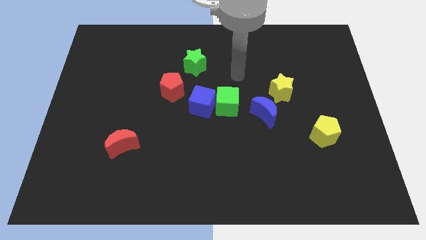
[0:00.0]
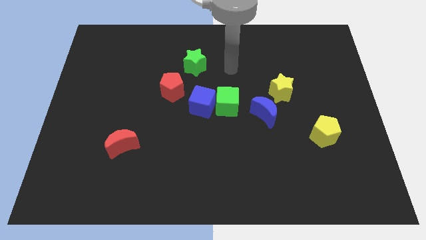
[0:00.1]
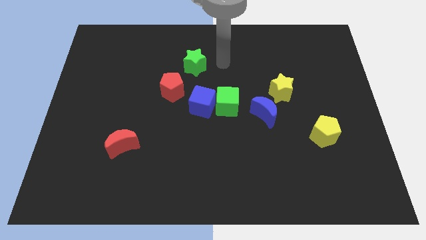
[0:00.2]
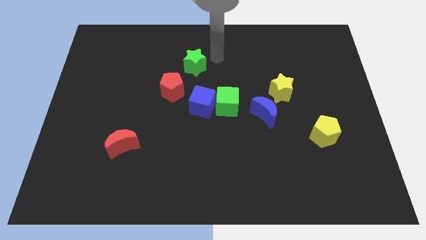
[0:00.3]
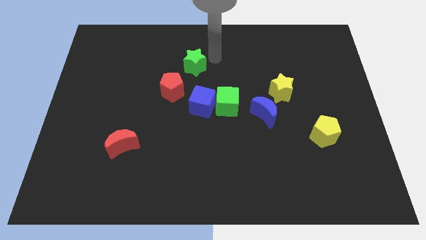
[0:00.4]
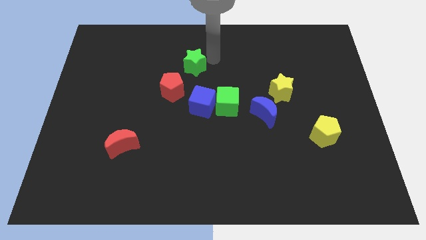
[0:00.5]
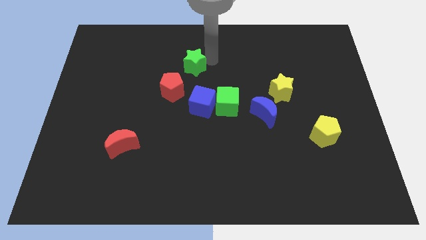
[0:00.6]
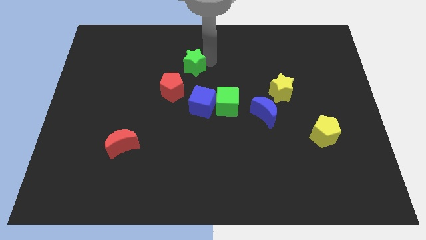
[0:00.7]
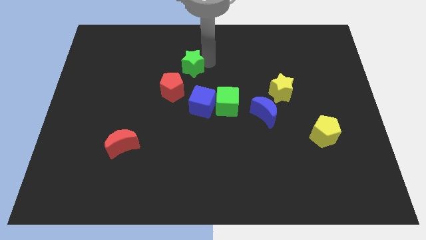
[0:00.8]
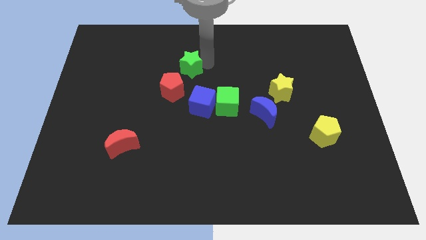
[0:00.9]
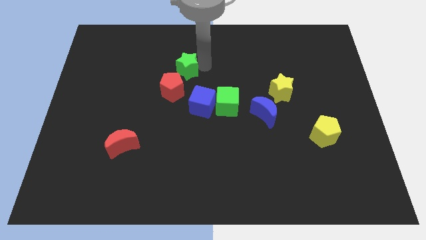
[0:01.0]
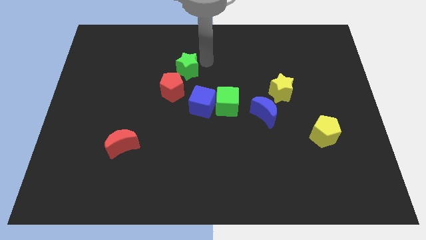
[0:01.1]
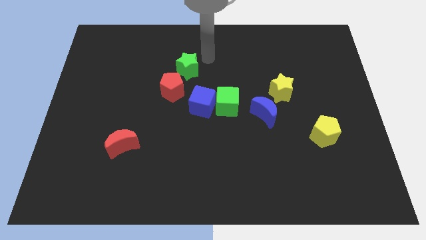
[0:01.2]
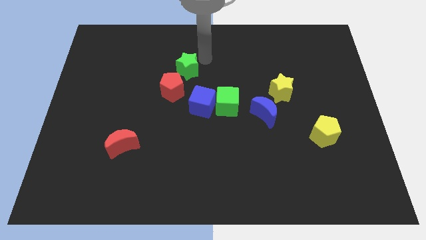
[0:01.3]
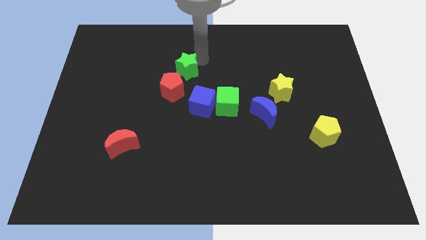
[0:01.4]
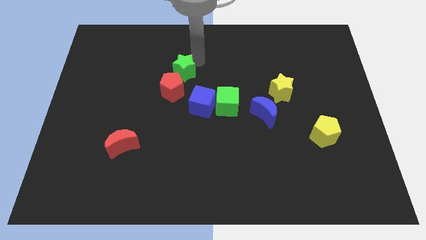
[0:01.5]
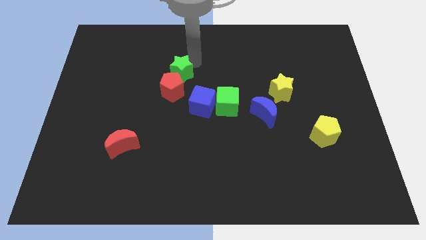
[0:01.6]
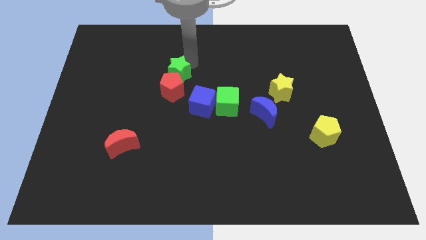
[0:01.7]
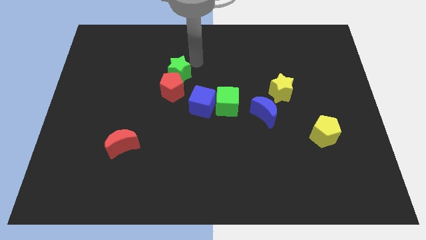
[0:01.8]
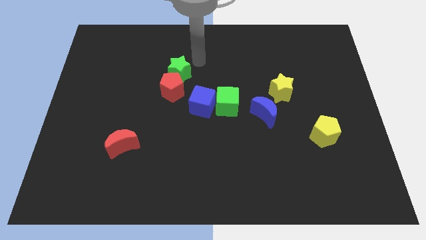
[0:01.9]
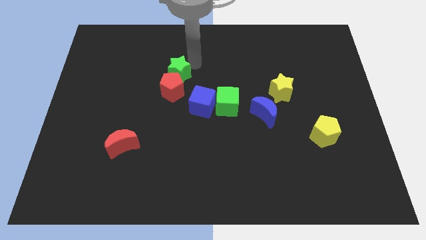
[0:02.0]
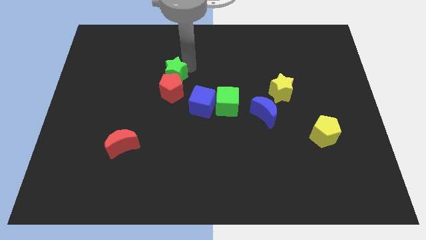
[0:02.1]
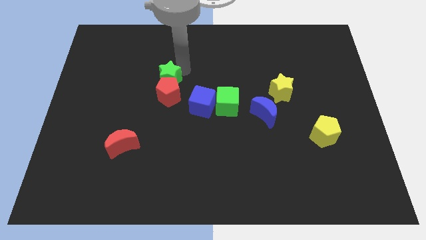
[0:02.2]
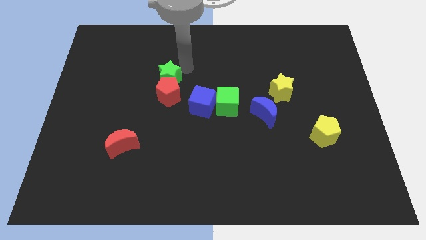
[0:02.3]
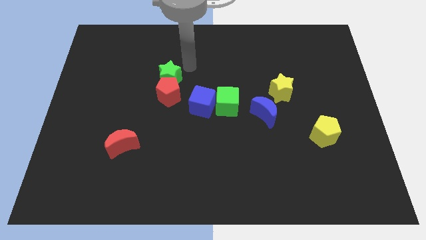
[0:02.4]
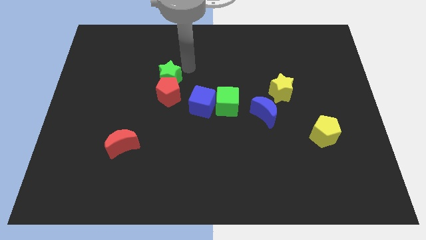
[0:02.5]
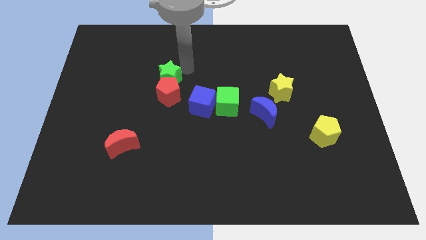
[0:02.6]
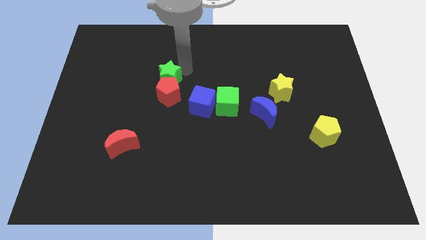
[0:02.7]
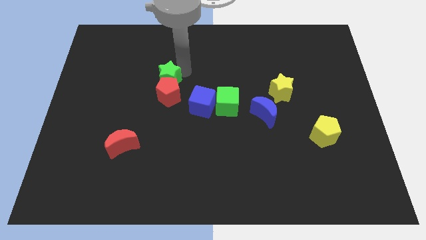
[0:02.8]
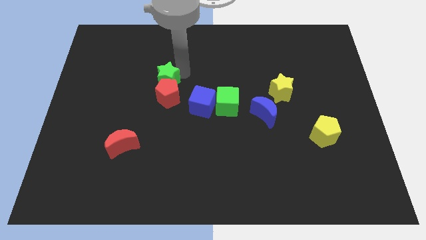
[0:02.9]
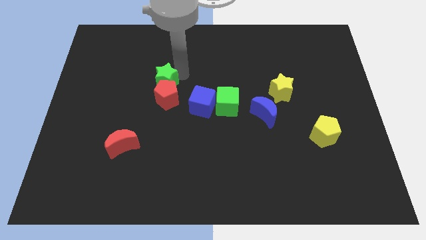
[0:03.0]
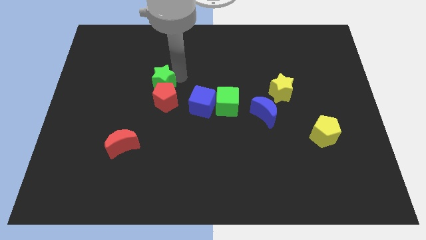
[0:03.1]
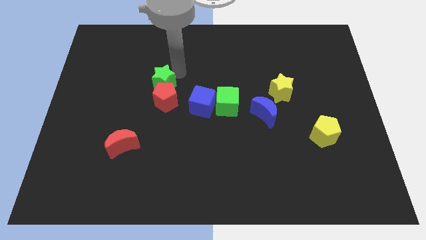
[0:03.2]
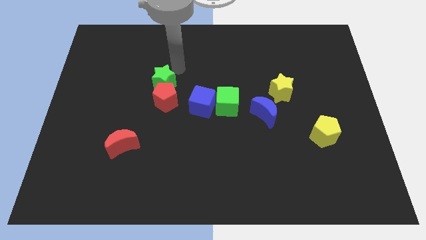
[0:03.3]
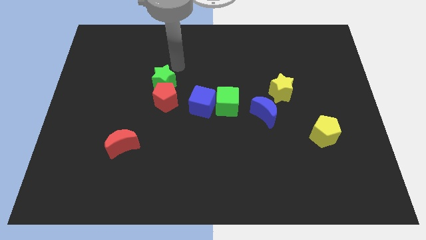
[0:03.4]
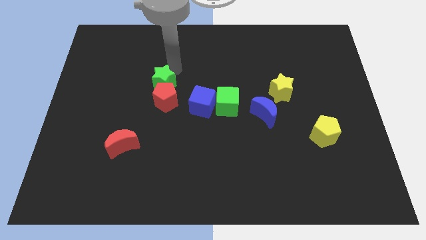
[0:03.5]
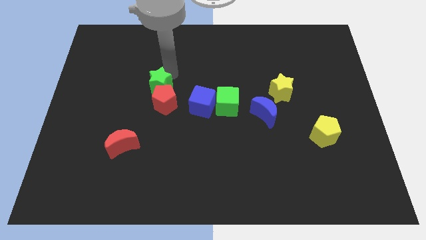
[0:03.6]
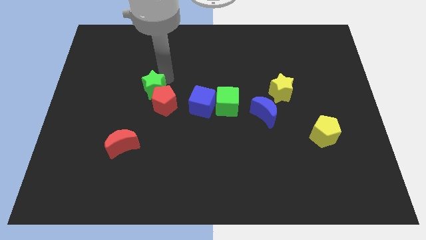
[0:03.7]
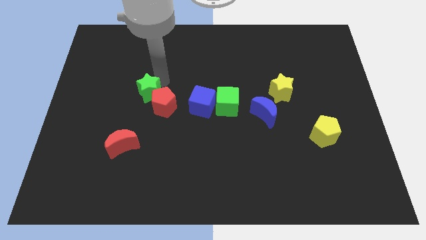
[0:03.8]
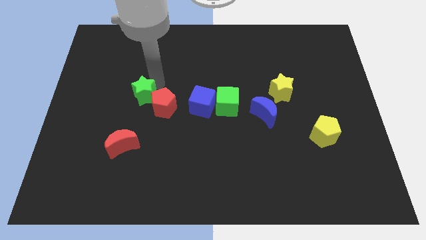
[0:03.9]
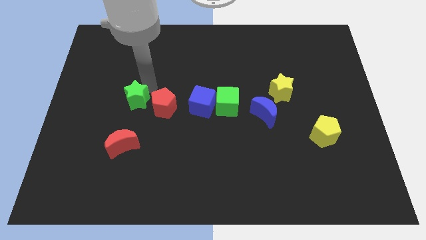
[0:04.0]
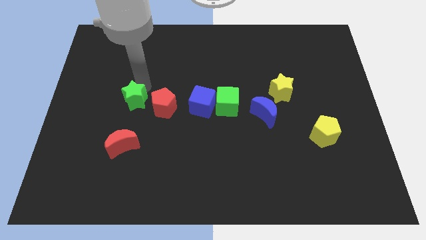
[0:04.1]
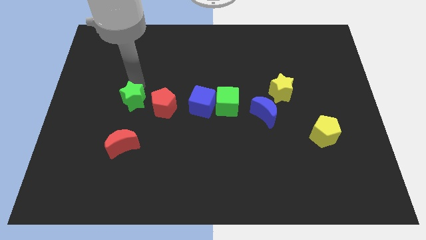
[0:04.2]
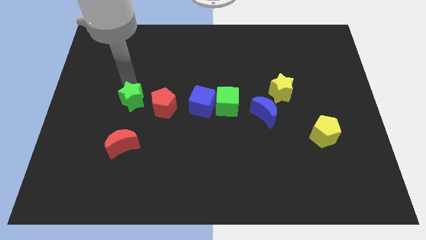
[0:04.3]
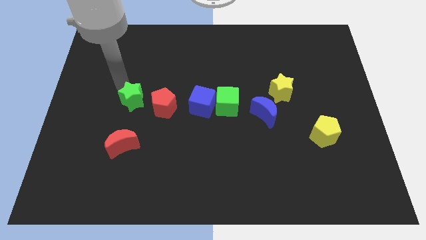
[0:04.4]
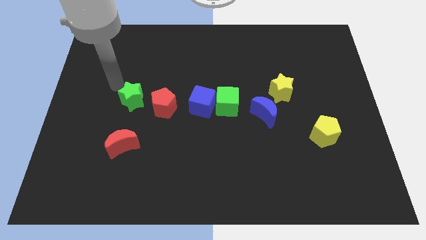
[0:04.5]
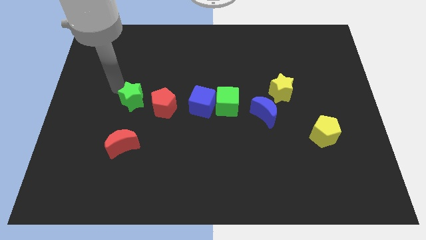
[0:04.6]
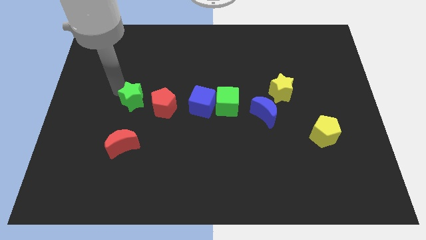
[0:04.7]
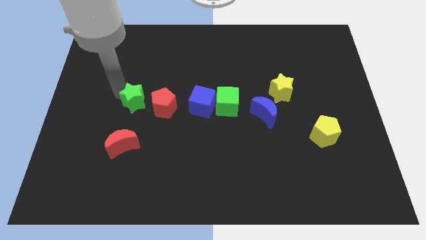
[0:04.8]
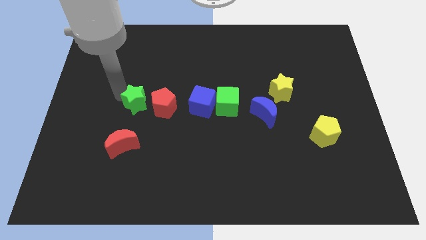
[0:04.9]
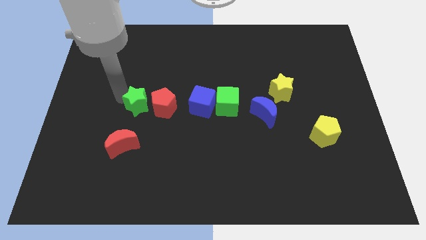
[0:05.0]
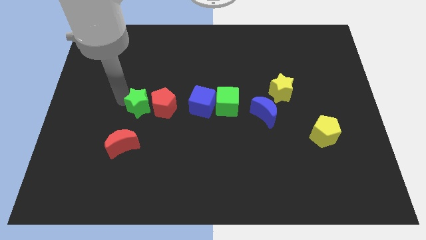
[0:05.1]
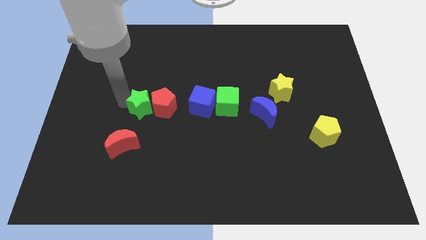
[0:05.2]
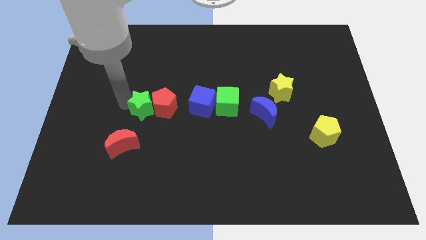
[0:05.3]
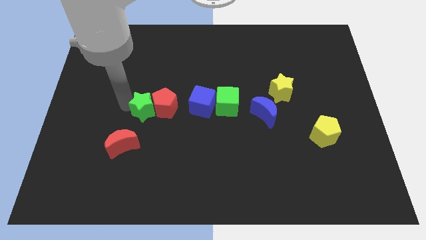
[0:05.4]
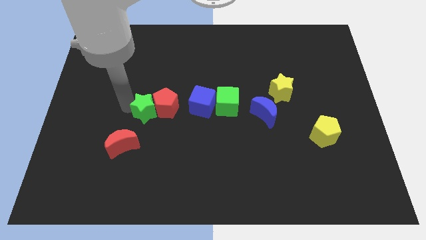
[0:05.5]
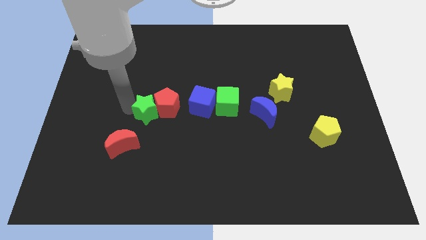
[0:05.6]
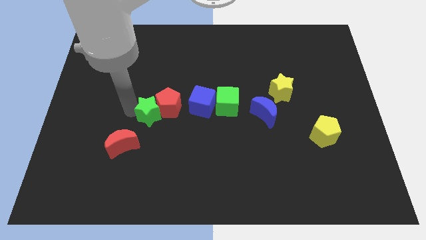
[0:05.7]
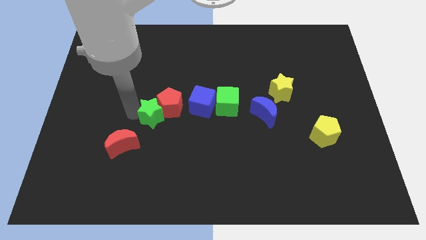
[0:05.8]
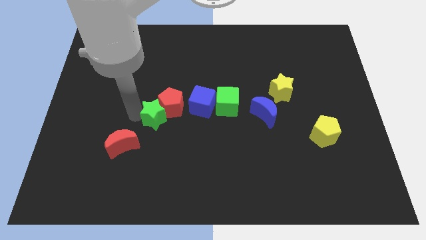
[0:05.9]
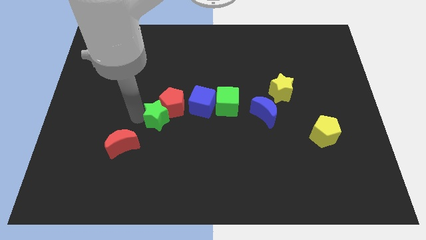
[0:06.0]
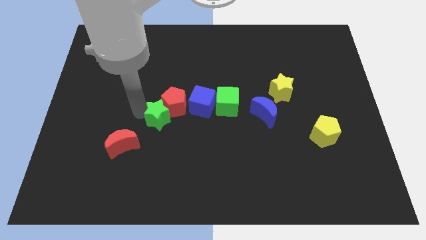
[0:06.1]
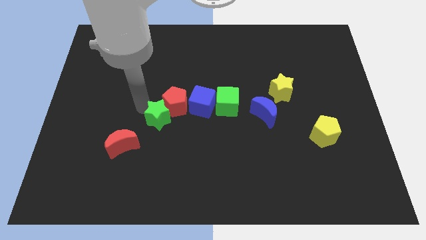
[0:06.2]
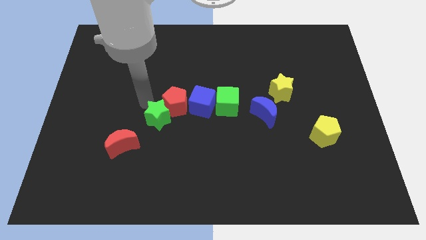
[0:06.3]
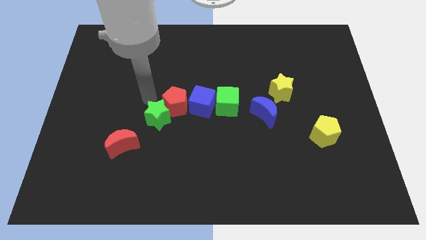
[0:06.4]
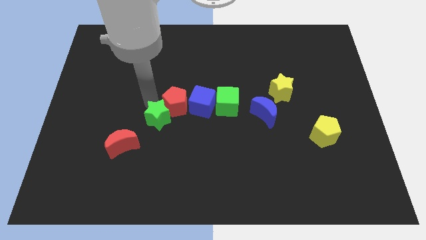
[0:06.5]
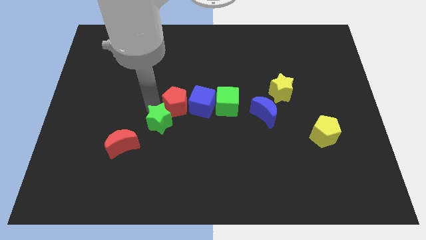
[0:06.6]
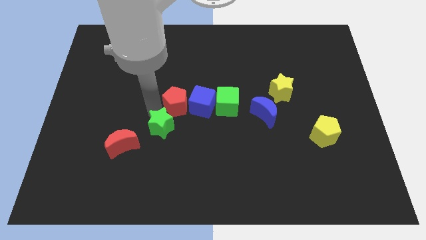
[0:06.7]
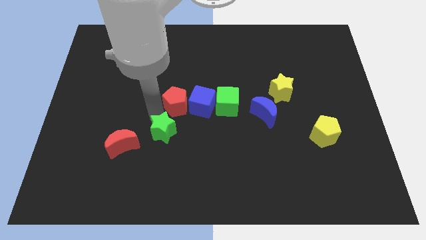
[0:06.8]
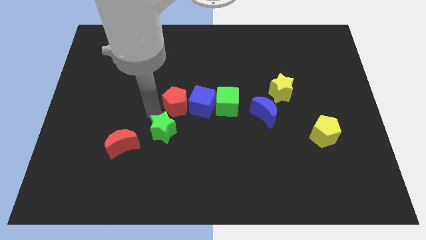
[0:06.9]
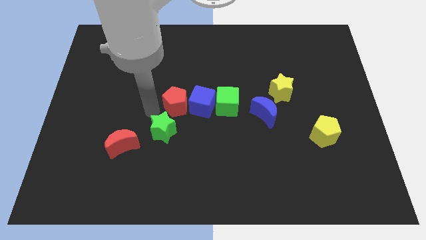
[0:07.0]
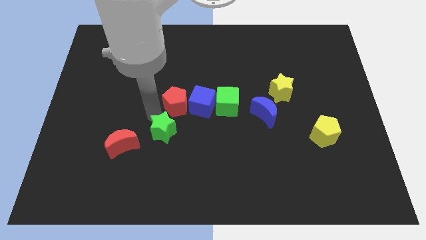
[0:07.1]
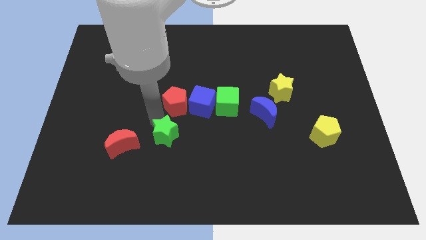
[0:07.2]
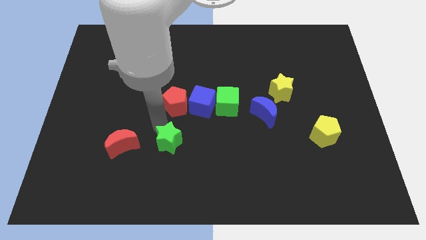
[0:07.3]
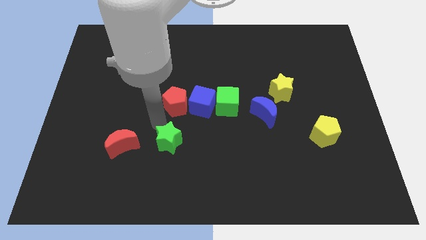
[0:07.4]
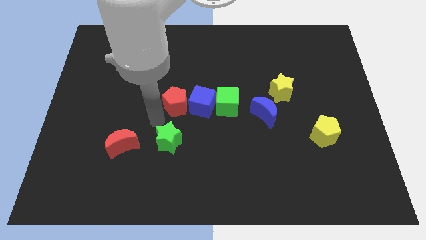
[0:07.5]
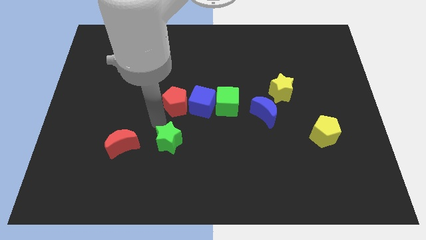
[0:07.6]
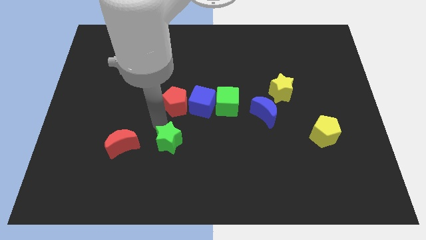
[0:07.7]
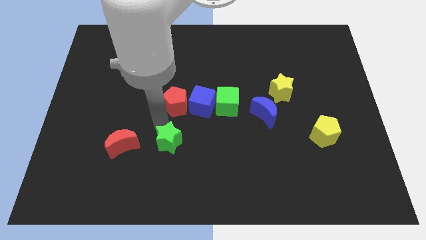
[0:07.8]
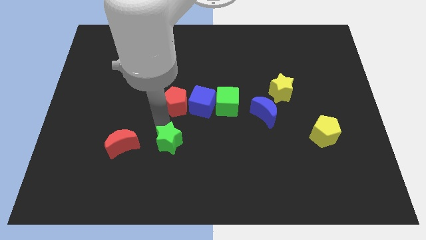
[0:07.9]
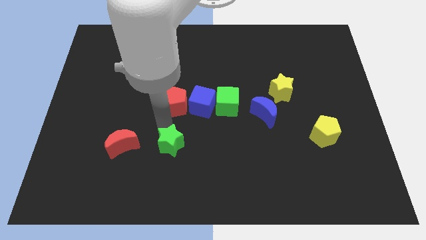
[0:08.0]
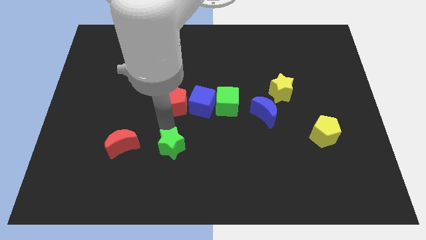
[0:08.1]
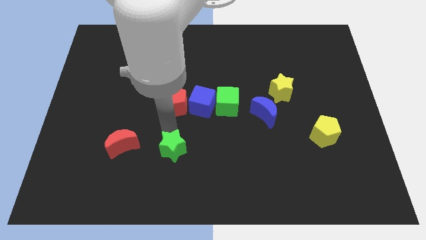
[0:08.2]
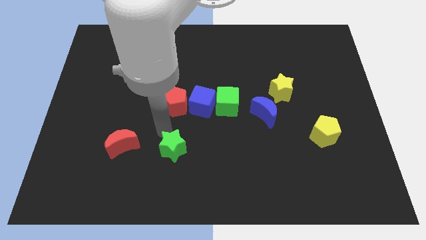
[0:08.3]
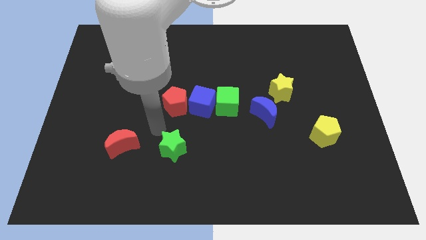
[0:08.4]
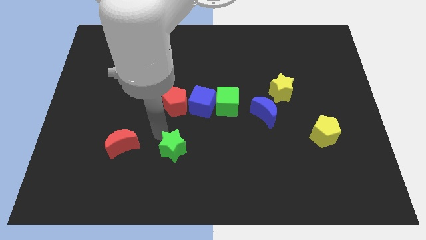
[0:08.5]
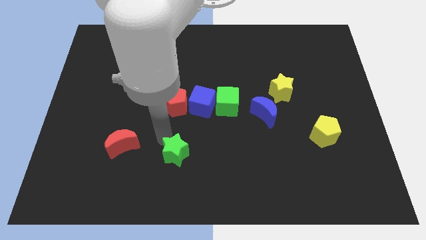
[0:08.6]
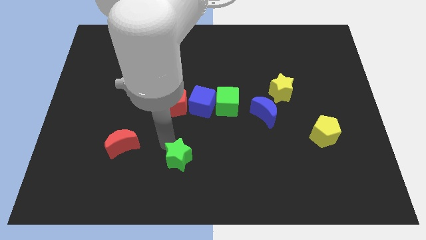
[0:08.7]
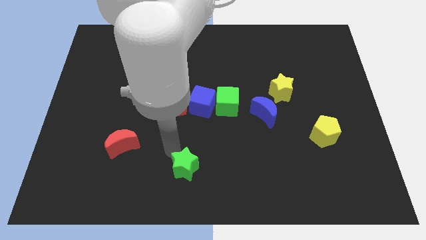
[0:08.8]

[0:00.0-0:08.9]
slide the green star to the bottom side
